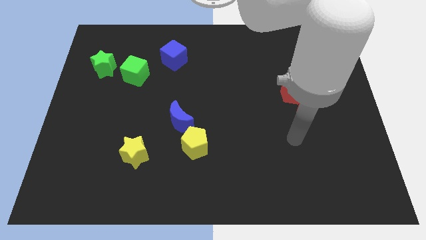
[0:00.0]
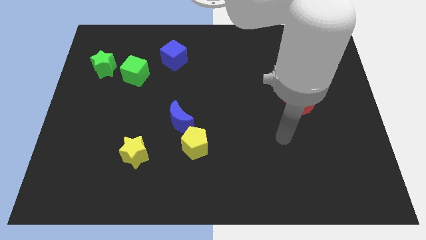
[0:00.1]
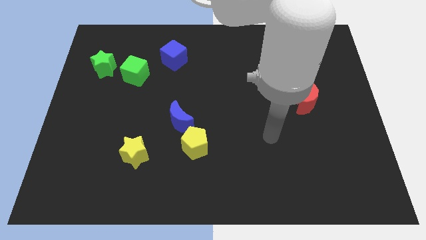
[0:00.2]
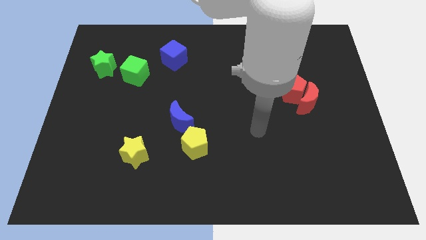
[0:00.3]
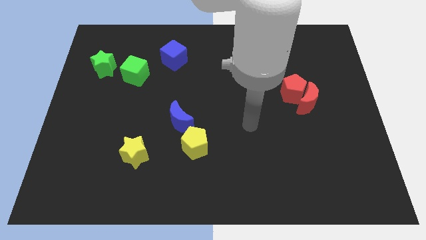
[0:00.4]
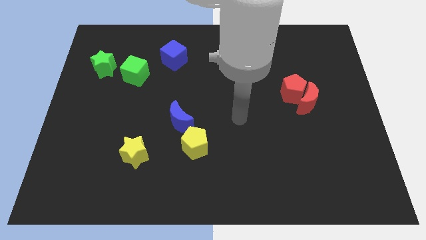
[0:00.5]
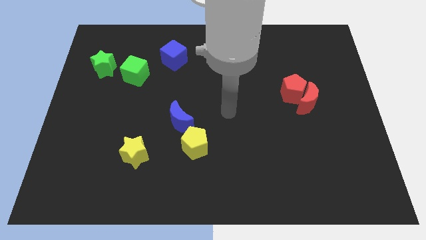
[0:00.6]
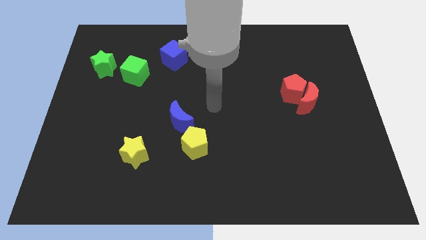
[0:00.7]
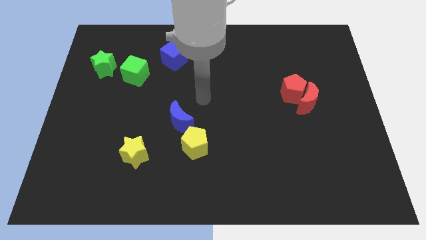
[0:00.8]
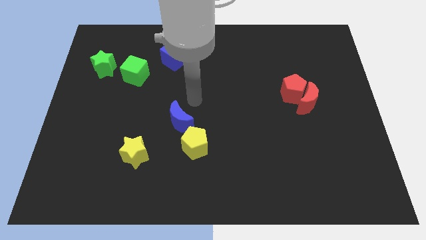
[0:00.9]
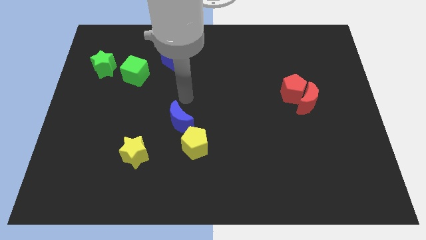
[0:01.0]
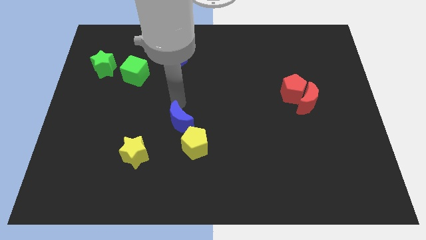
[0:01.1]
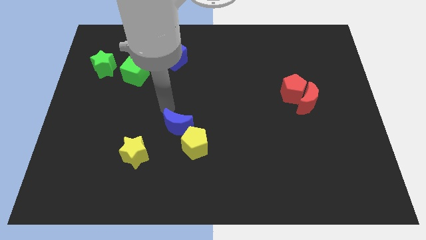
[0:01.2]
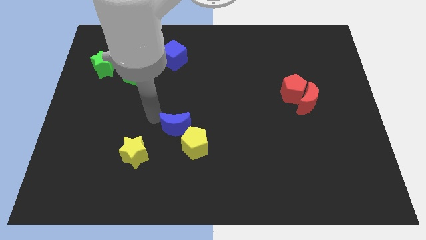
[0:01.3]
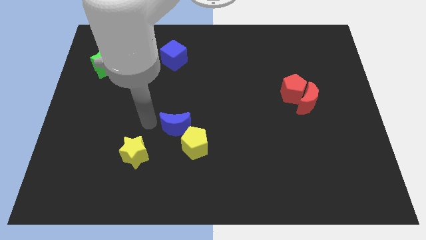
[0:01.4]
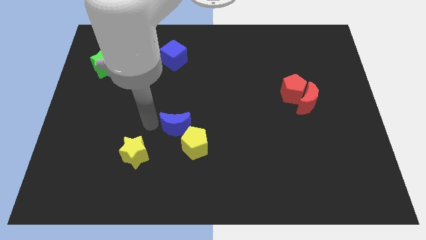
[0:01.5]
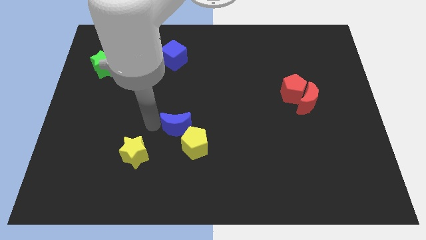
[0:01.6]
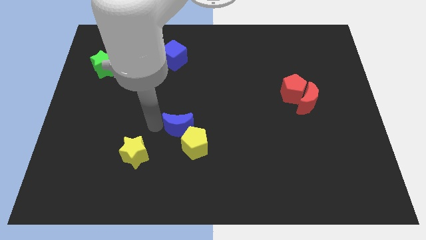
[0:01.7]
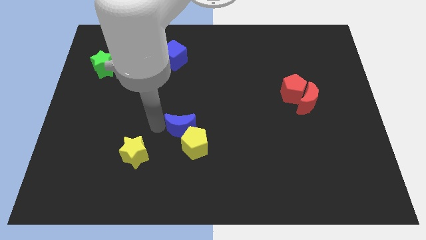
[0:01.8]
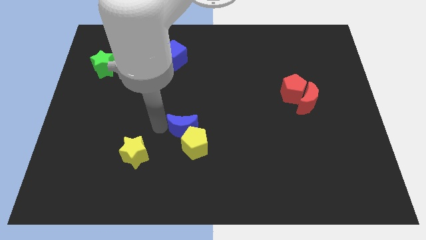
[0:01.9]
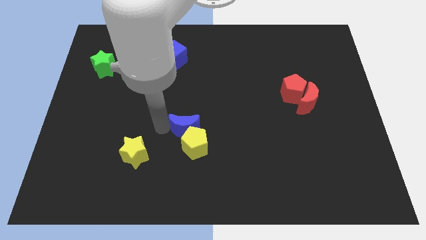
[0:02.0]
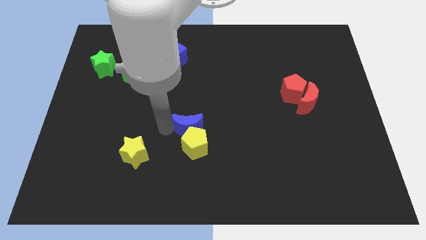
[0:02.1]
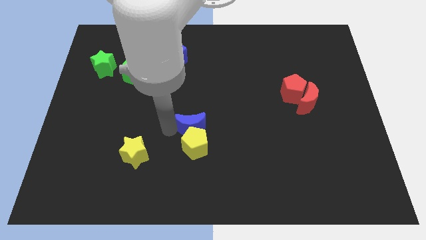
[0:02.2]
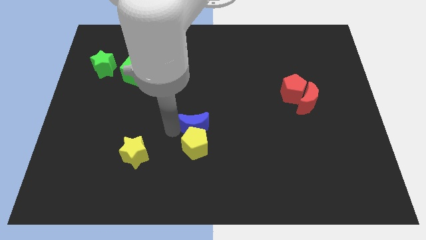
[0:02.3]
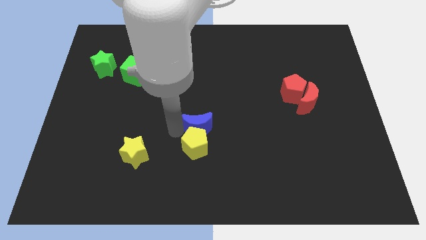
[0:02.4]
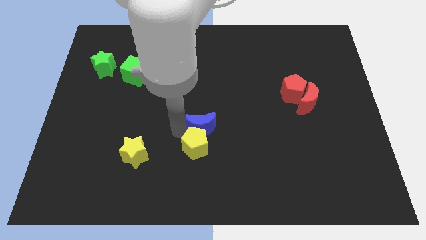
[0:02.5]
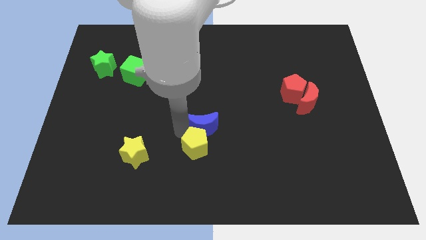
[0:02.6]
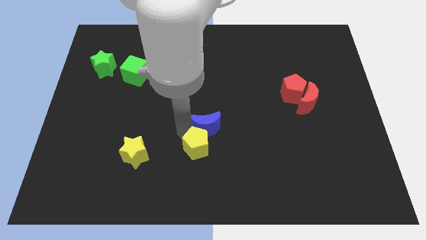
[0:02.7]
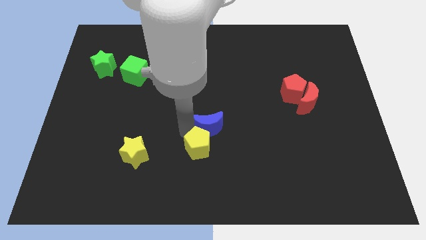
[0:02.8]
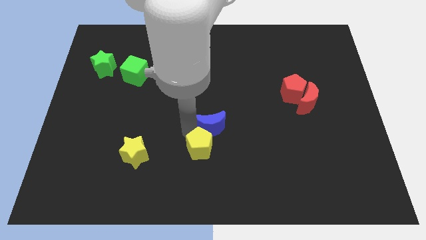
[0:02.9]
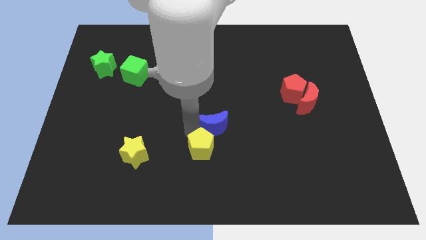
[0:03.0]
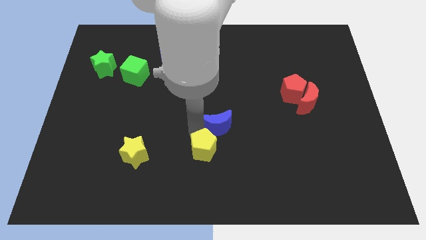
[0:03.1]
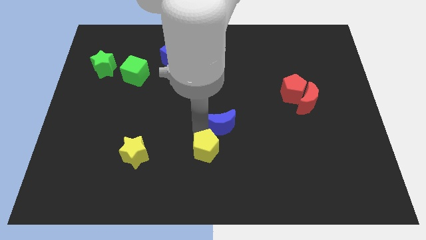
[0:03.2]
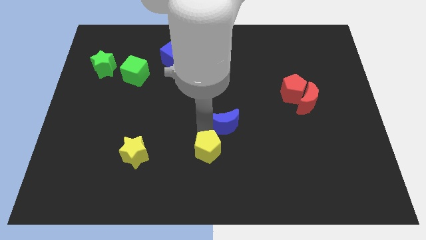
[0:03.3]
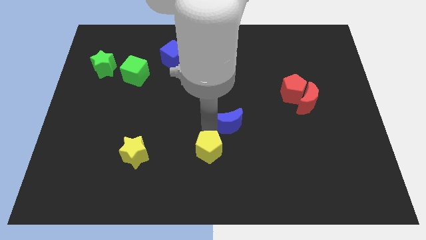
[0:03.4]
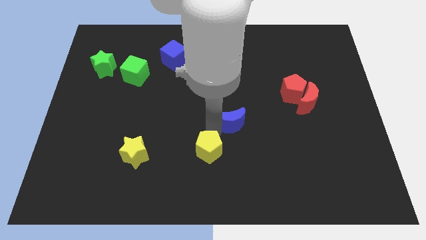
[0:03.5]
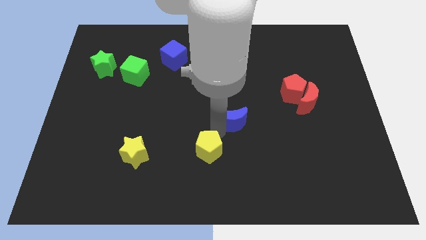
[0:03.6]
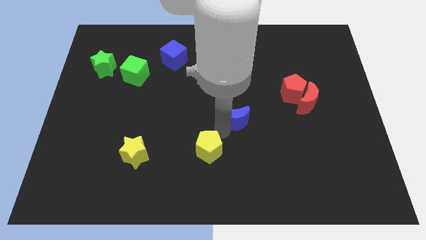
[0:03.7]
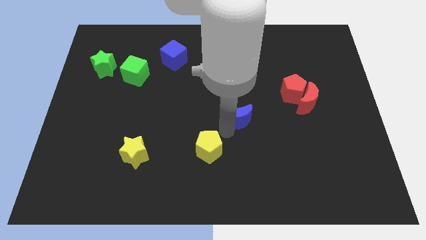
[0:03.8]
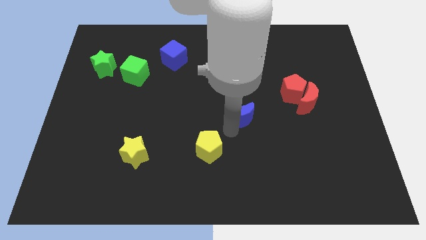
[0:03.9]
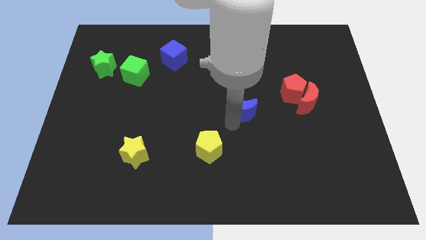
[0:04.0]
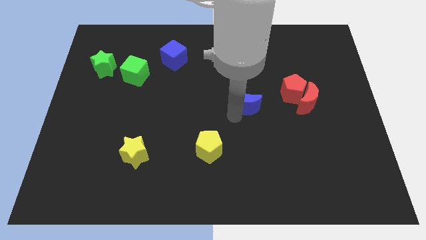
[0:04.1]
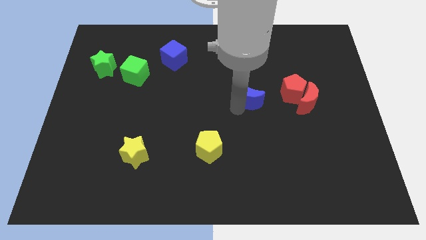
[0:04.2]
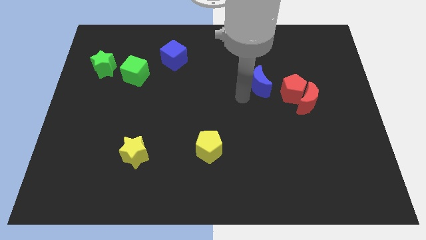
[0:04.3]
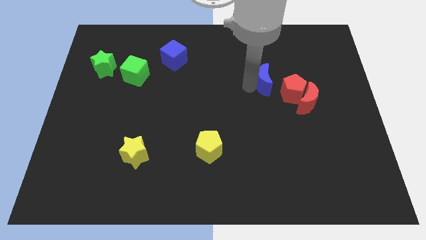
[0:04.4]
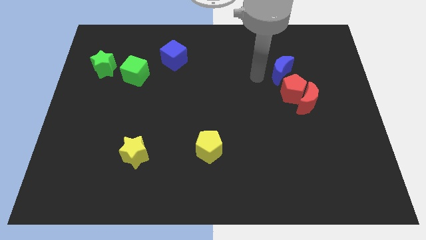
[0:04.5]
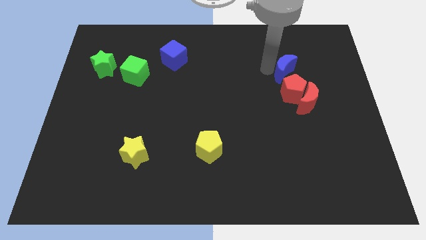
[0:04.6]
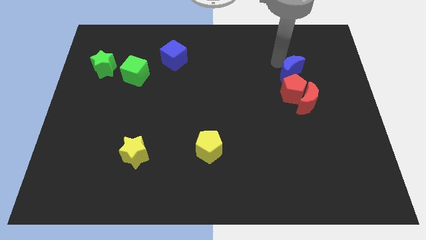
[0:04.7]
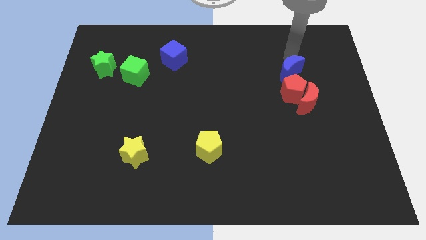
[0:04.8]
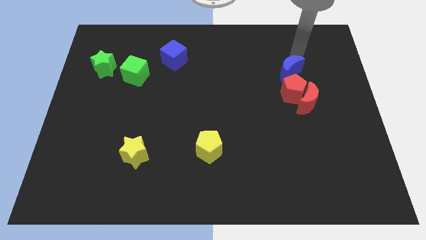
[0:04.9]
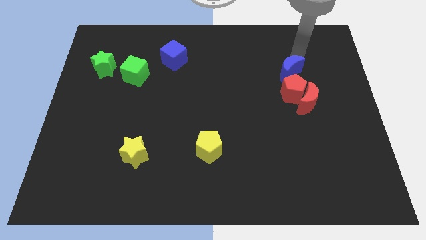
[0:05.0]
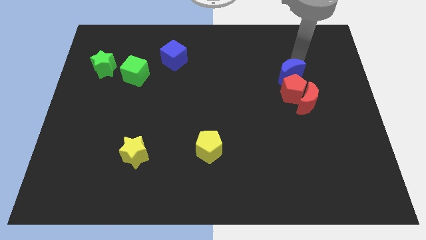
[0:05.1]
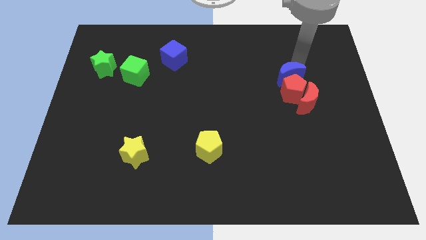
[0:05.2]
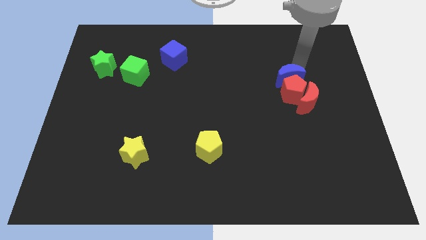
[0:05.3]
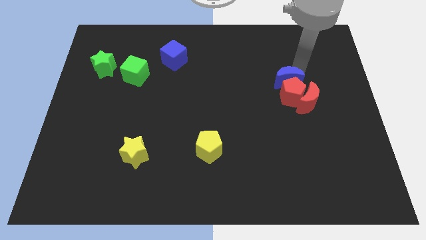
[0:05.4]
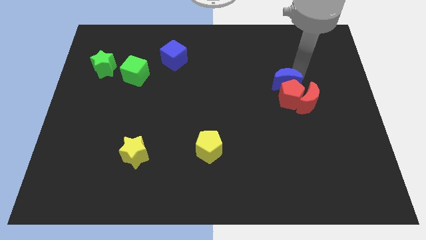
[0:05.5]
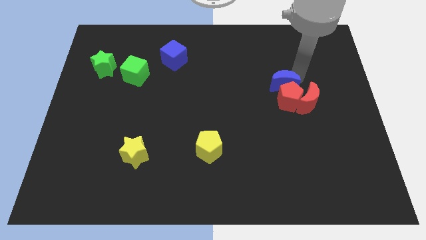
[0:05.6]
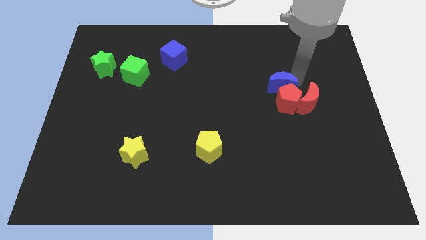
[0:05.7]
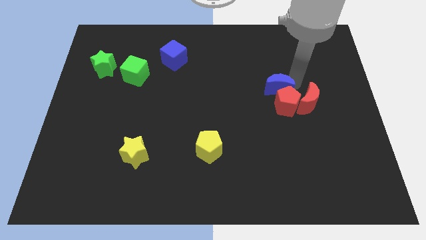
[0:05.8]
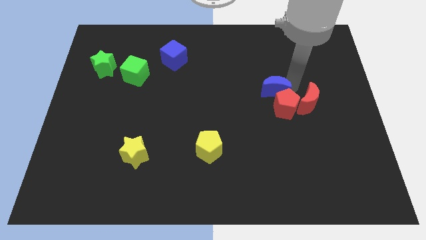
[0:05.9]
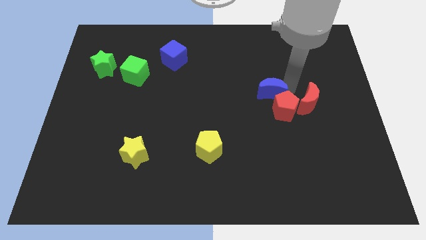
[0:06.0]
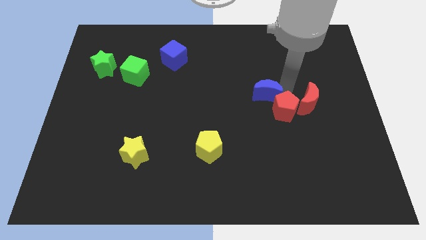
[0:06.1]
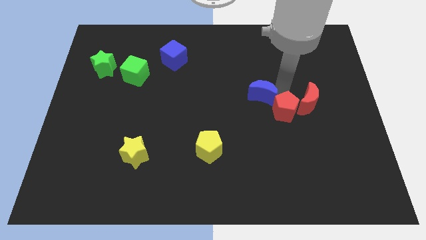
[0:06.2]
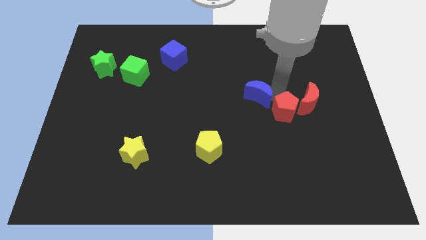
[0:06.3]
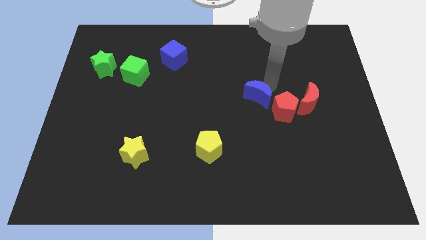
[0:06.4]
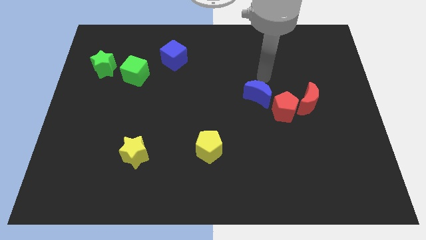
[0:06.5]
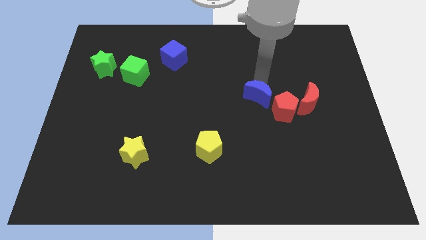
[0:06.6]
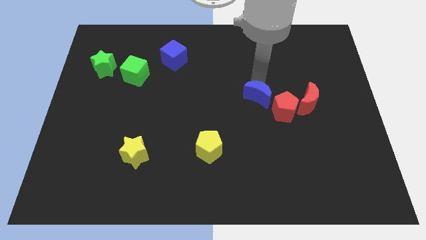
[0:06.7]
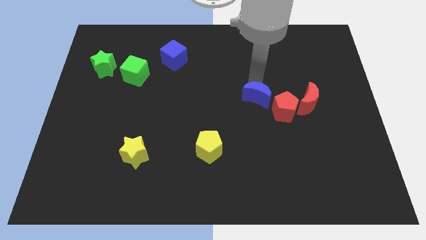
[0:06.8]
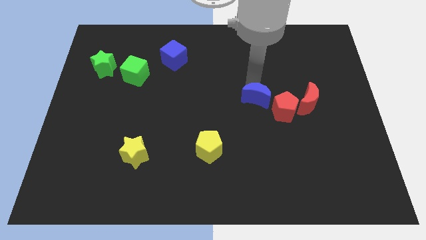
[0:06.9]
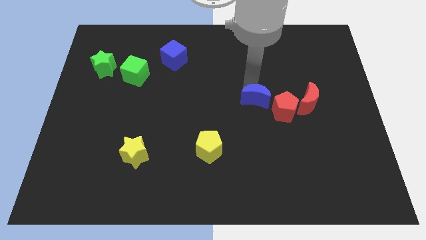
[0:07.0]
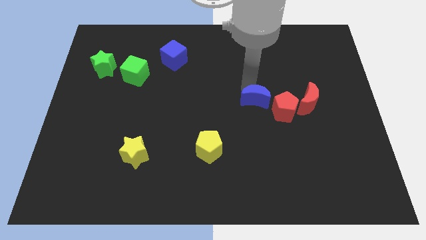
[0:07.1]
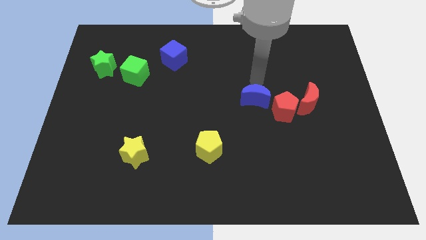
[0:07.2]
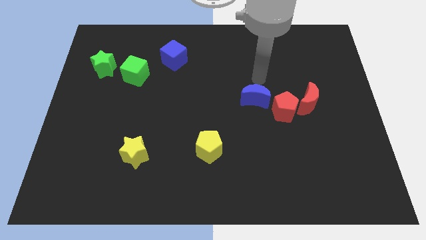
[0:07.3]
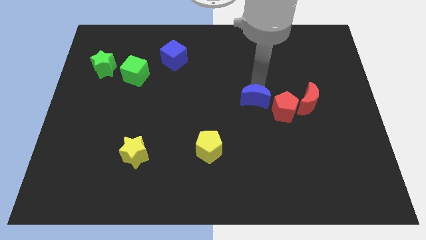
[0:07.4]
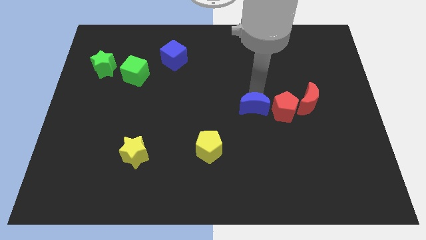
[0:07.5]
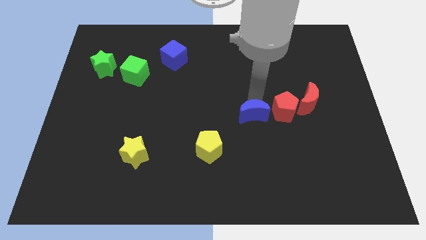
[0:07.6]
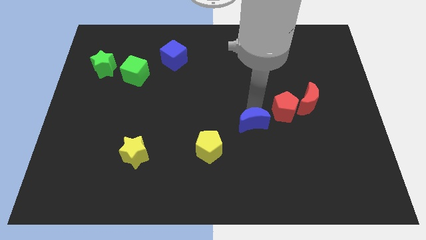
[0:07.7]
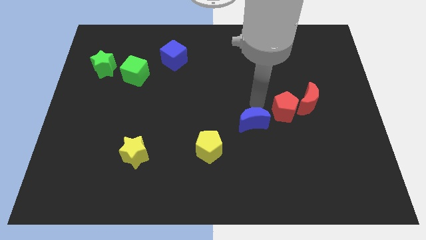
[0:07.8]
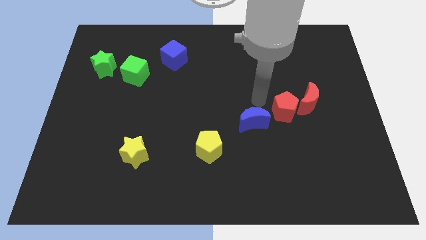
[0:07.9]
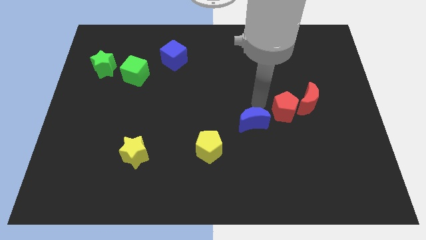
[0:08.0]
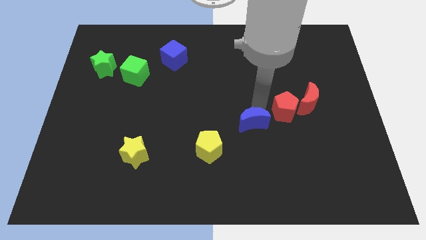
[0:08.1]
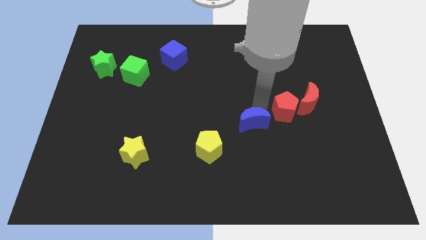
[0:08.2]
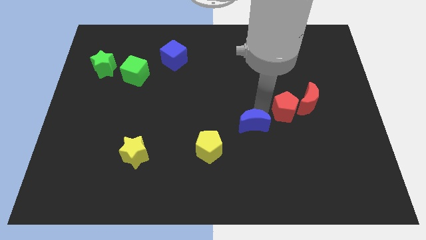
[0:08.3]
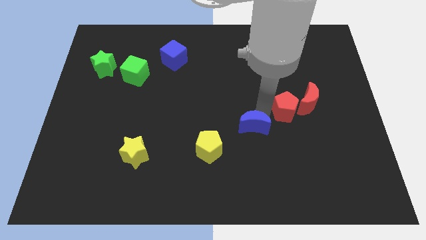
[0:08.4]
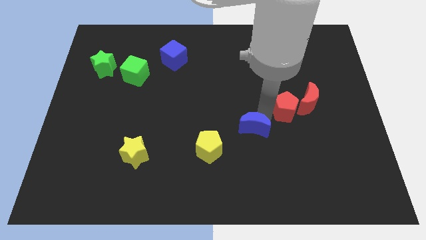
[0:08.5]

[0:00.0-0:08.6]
move the blue moon slightly downwards and then to the right
